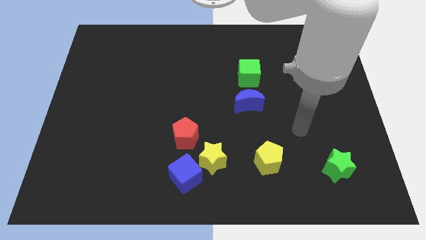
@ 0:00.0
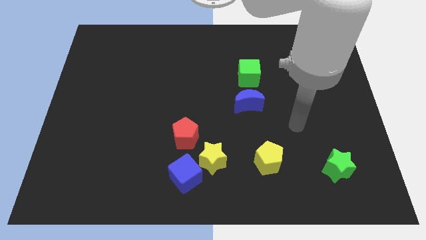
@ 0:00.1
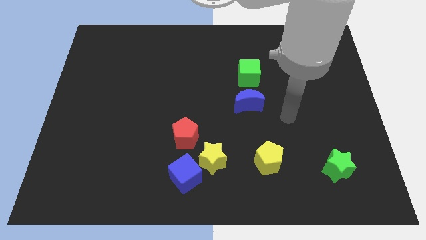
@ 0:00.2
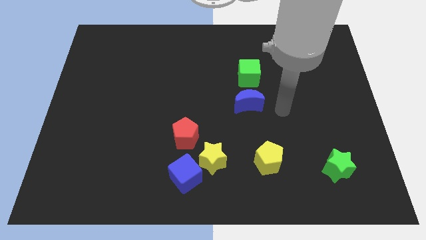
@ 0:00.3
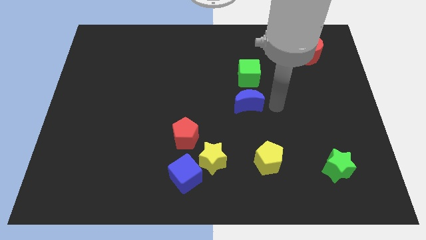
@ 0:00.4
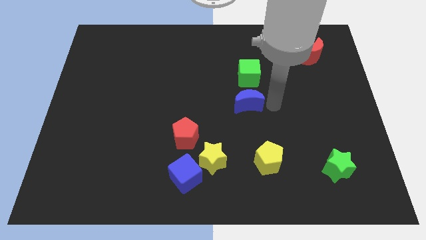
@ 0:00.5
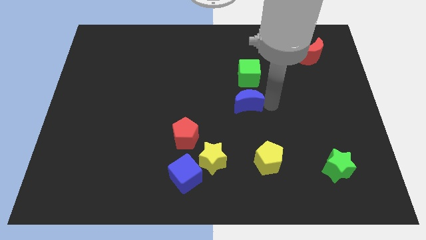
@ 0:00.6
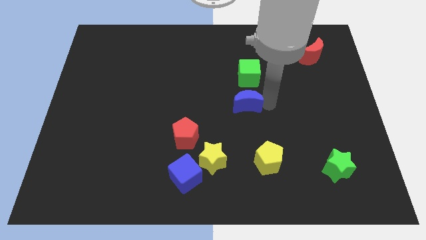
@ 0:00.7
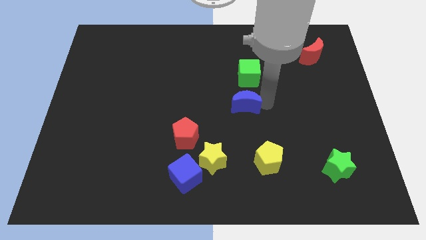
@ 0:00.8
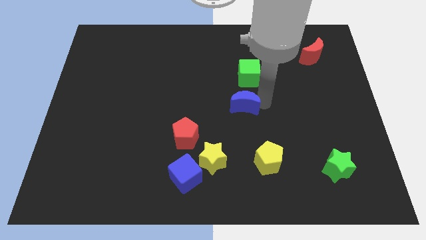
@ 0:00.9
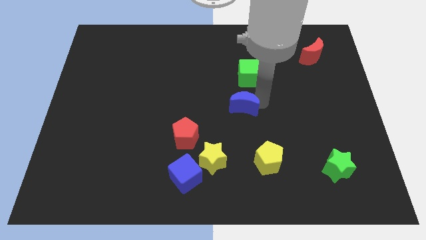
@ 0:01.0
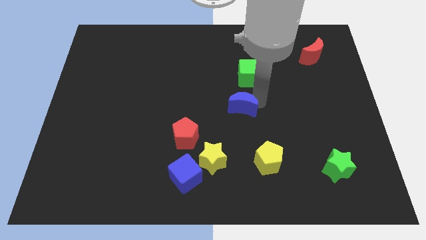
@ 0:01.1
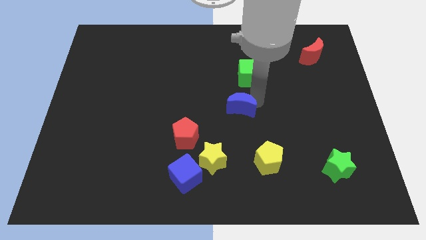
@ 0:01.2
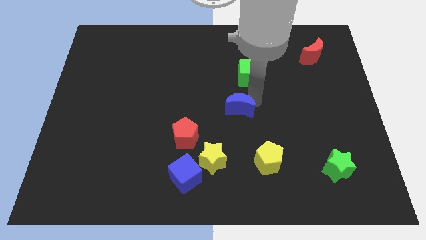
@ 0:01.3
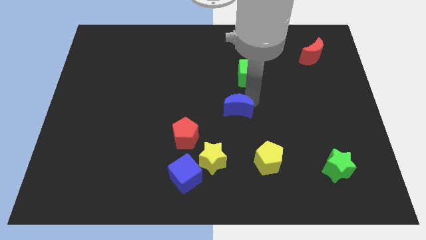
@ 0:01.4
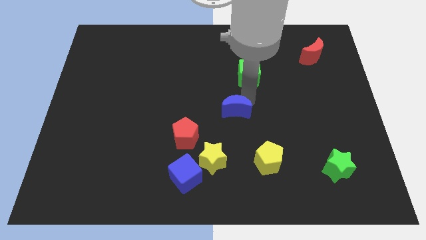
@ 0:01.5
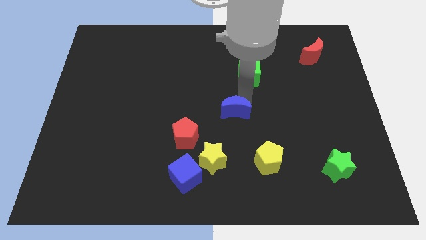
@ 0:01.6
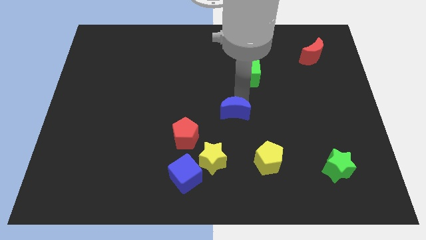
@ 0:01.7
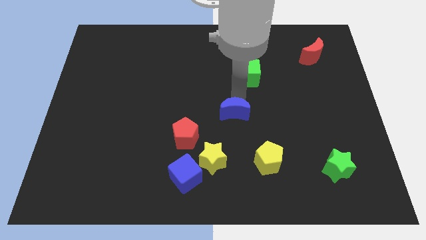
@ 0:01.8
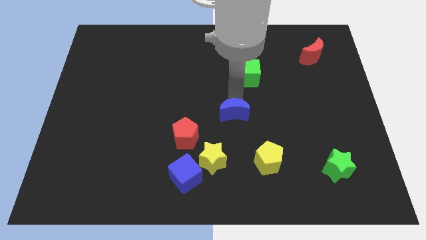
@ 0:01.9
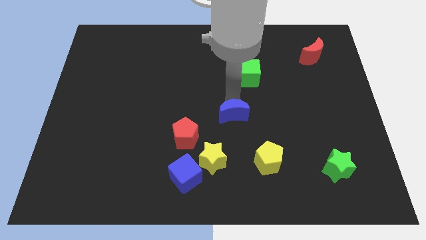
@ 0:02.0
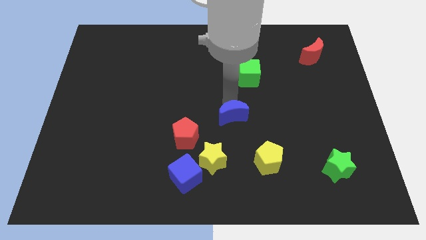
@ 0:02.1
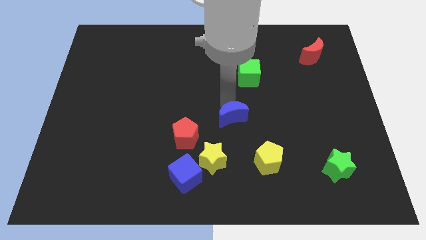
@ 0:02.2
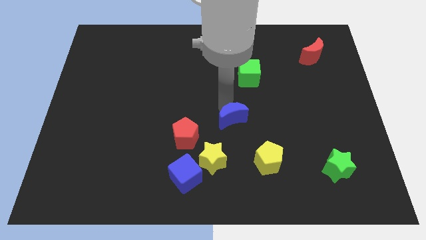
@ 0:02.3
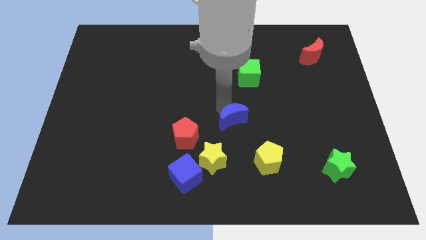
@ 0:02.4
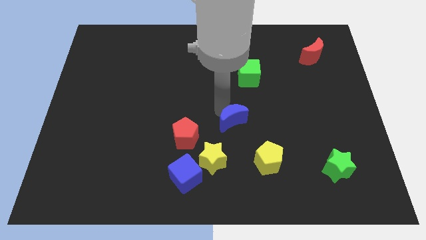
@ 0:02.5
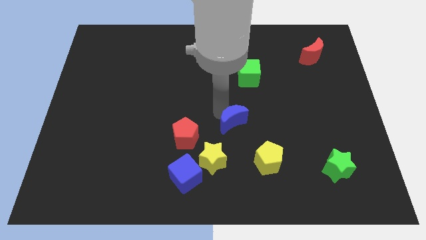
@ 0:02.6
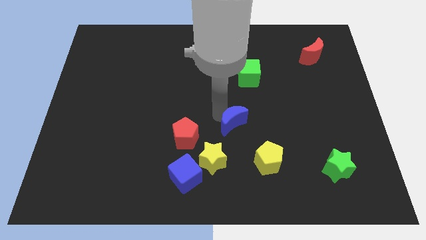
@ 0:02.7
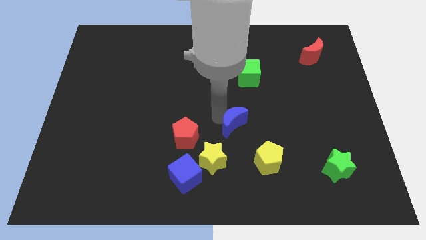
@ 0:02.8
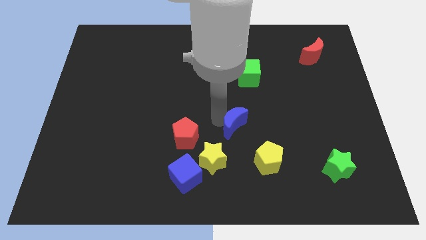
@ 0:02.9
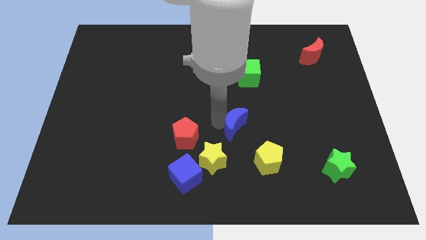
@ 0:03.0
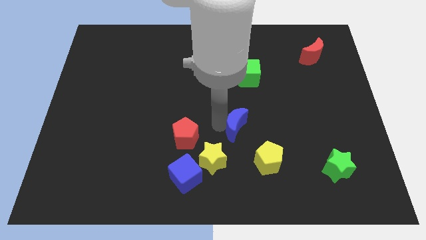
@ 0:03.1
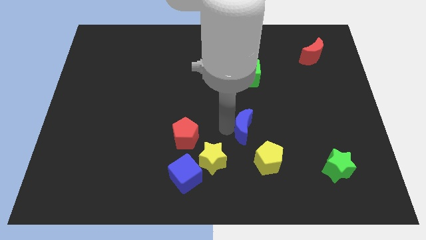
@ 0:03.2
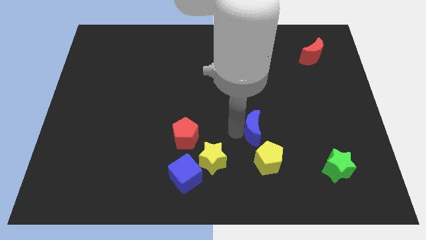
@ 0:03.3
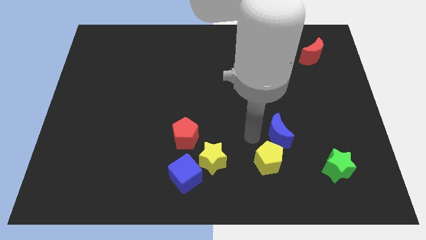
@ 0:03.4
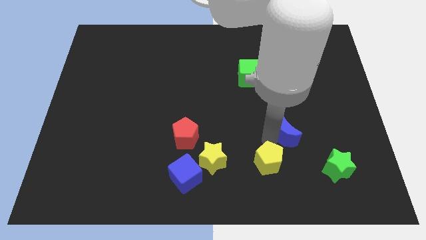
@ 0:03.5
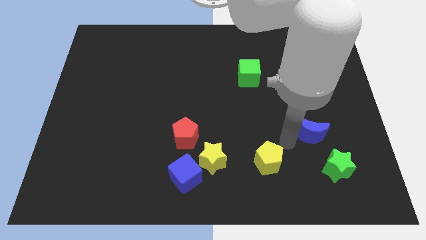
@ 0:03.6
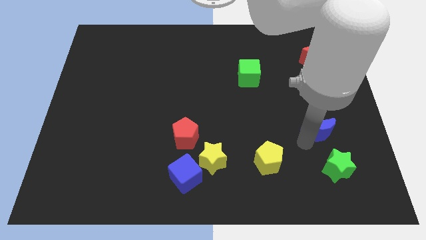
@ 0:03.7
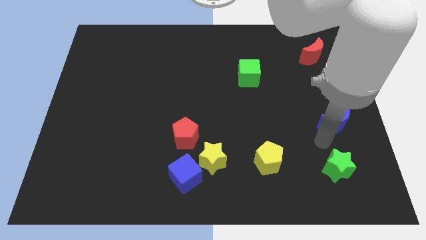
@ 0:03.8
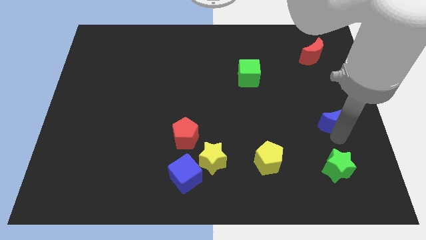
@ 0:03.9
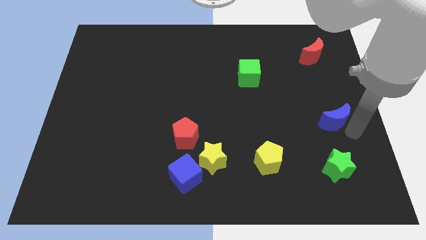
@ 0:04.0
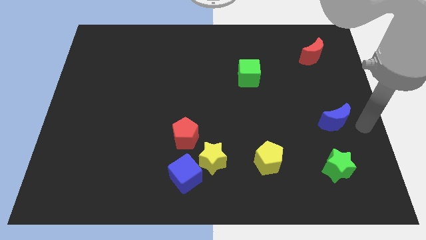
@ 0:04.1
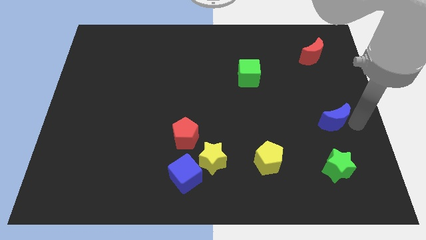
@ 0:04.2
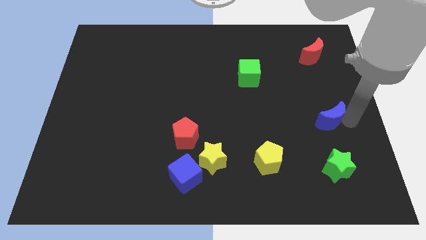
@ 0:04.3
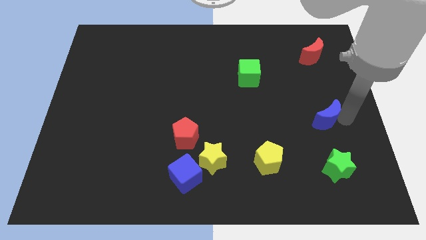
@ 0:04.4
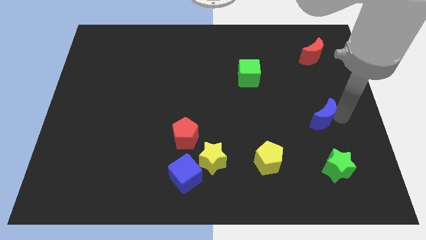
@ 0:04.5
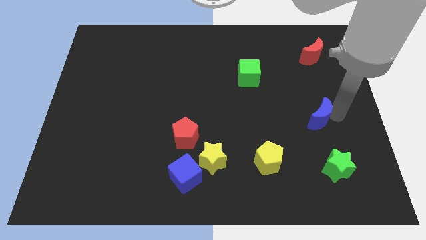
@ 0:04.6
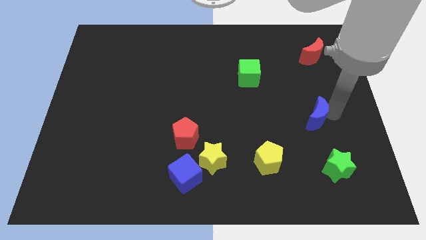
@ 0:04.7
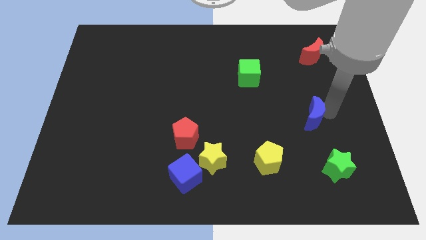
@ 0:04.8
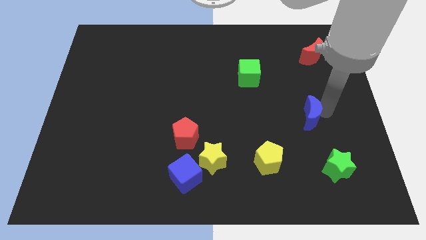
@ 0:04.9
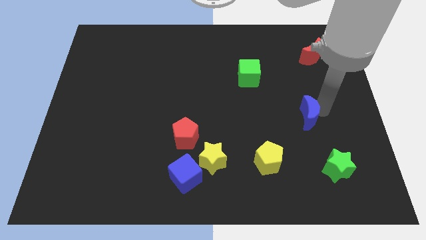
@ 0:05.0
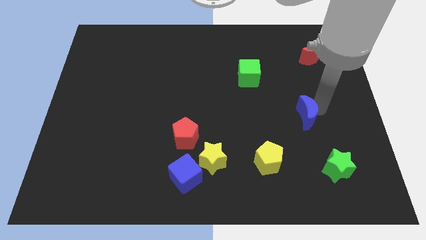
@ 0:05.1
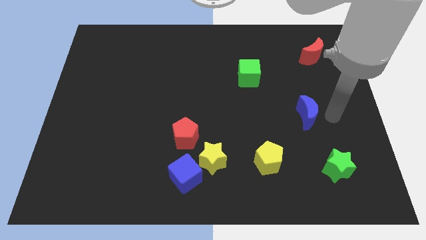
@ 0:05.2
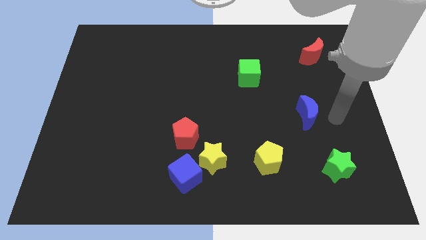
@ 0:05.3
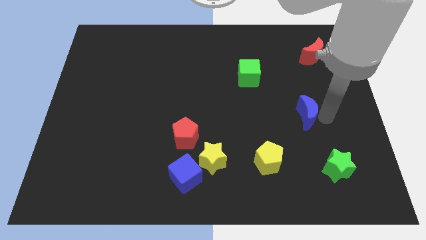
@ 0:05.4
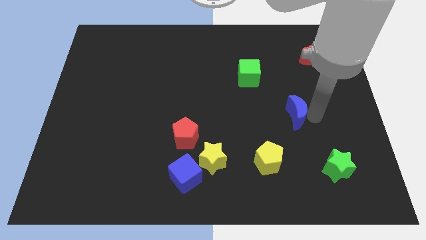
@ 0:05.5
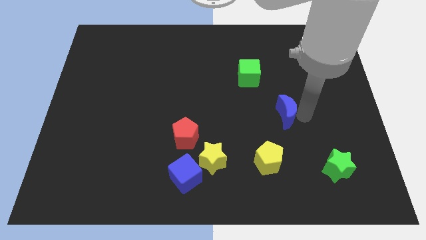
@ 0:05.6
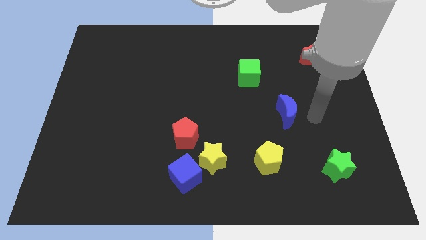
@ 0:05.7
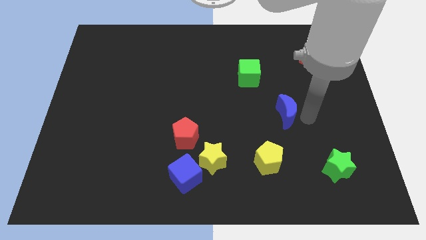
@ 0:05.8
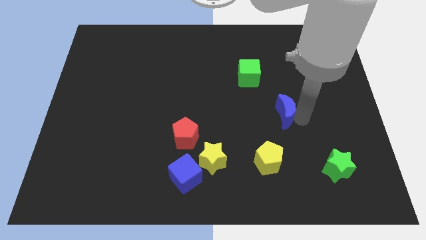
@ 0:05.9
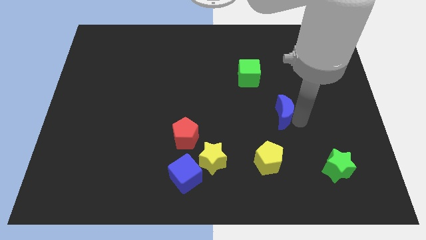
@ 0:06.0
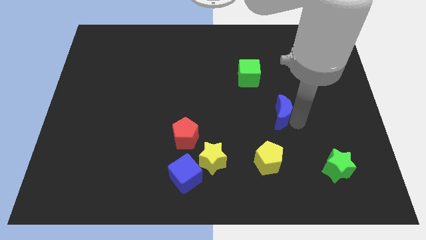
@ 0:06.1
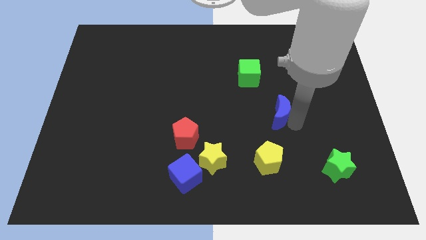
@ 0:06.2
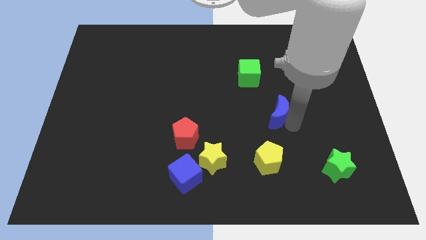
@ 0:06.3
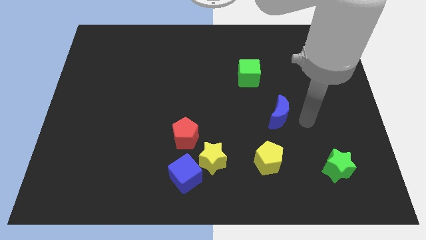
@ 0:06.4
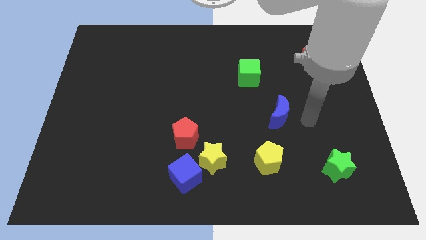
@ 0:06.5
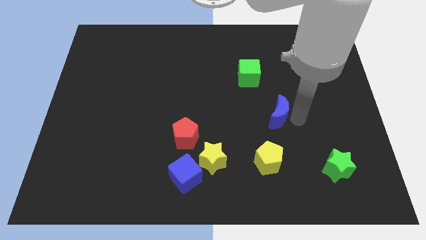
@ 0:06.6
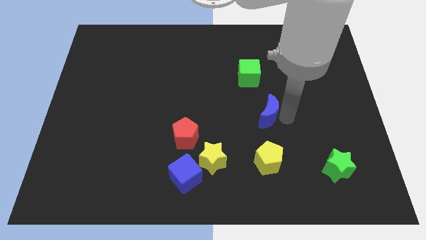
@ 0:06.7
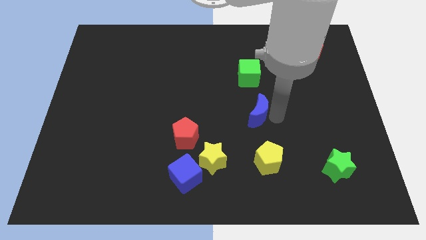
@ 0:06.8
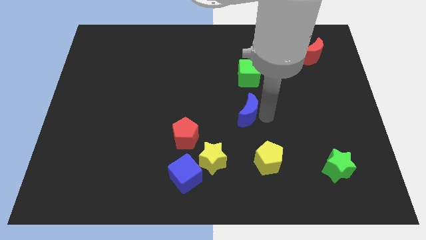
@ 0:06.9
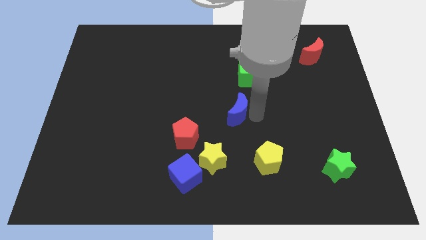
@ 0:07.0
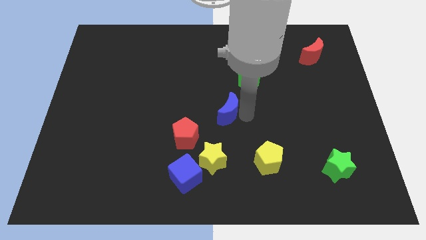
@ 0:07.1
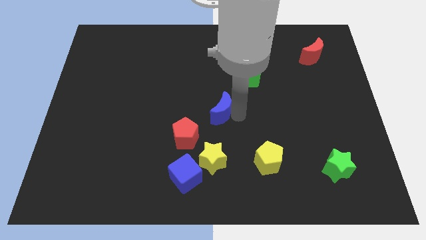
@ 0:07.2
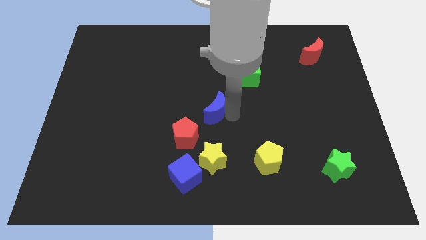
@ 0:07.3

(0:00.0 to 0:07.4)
slide the blue moon left somewhat

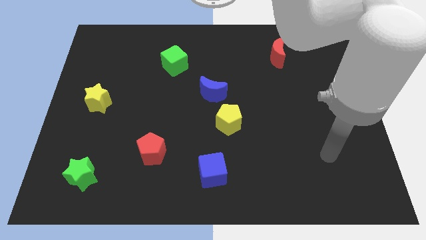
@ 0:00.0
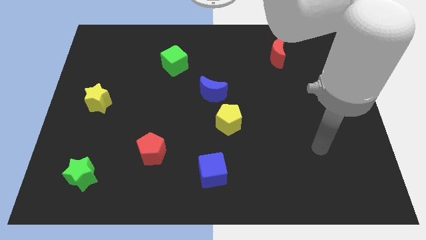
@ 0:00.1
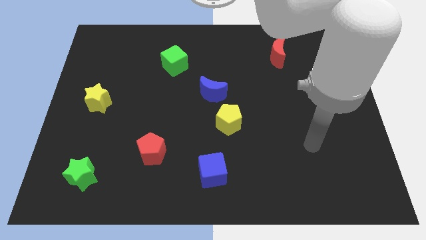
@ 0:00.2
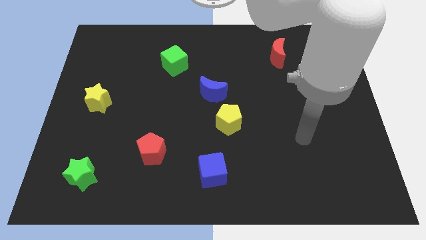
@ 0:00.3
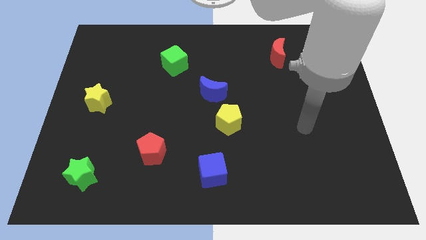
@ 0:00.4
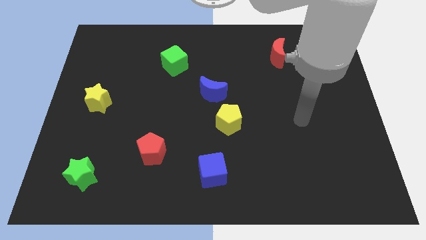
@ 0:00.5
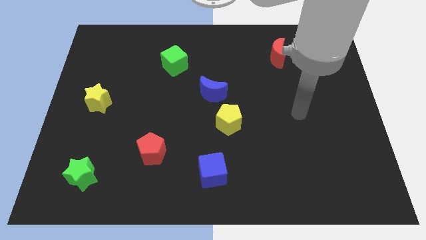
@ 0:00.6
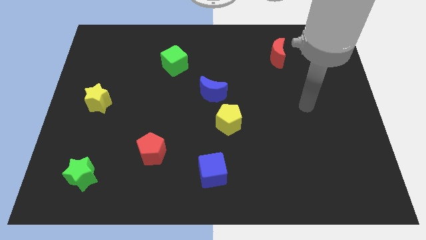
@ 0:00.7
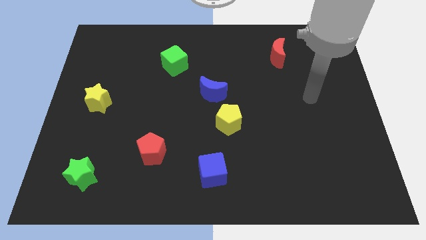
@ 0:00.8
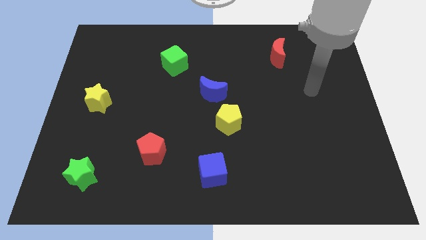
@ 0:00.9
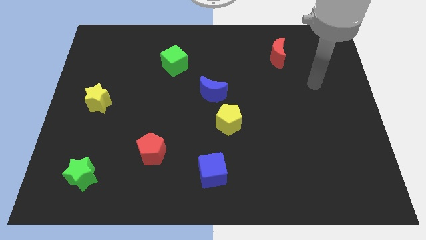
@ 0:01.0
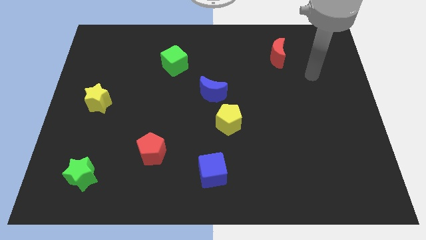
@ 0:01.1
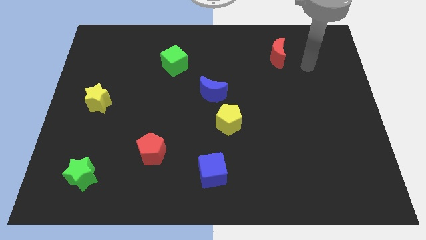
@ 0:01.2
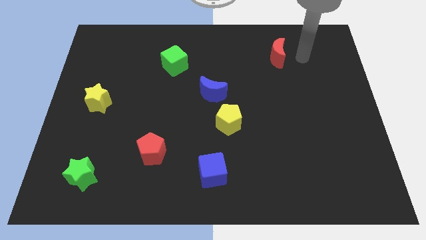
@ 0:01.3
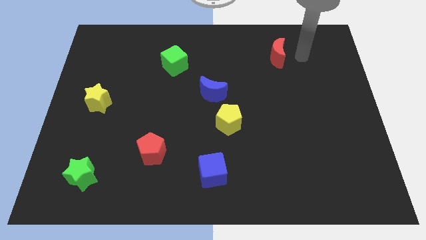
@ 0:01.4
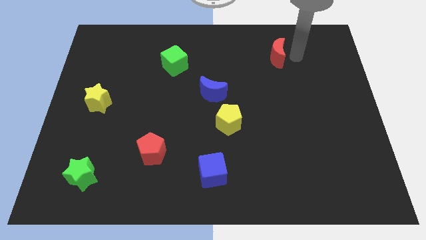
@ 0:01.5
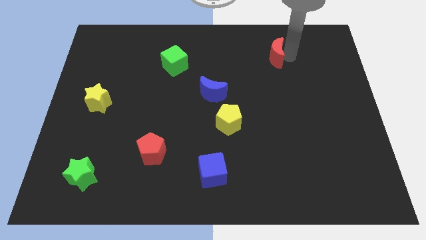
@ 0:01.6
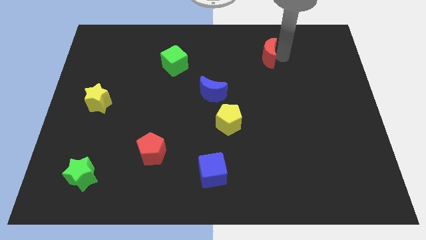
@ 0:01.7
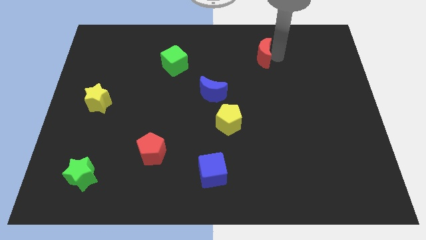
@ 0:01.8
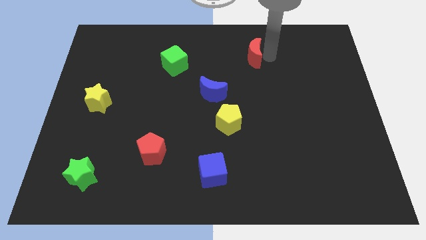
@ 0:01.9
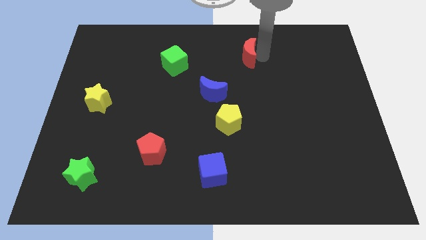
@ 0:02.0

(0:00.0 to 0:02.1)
slightly slide the red moon left
